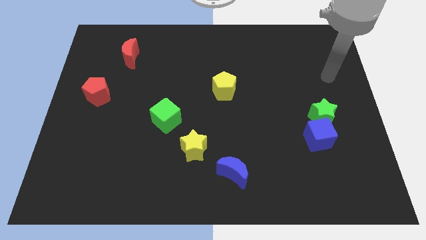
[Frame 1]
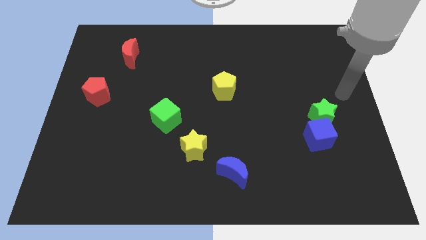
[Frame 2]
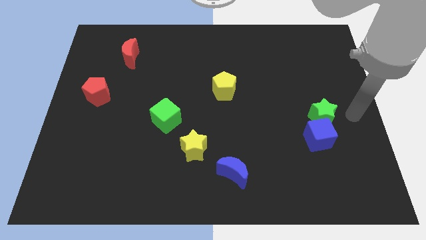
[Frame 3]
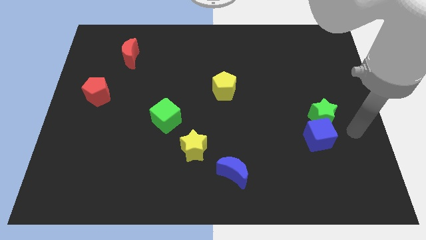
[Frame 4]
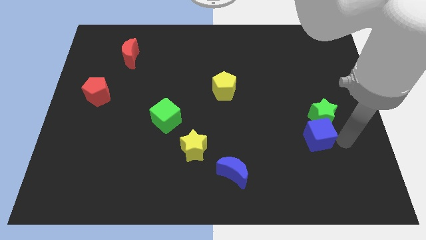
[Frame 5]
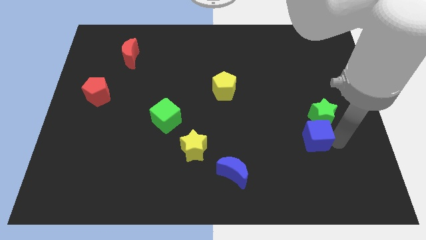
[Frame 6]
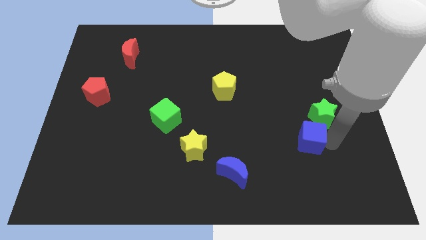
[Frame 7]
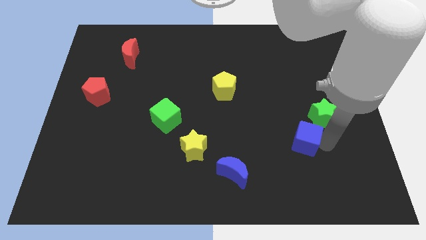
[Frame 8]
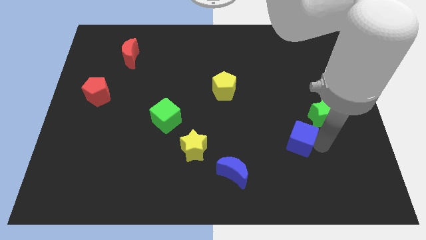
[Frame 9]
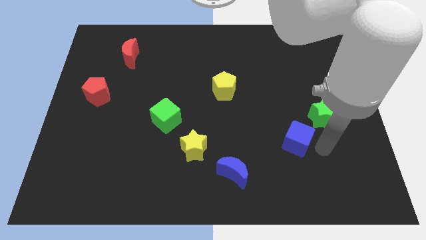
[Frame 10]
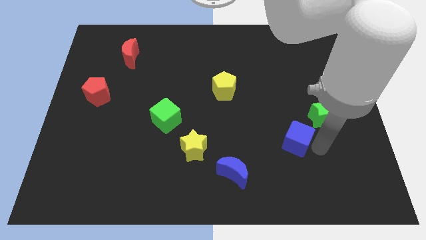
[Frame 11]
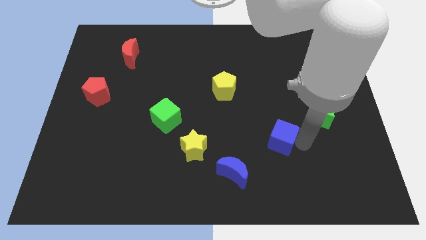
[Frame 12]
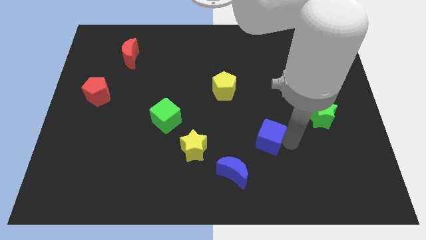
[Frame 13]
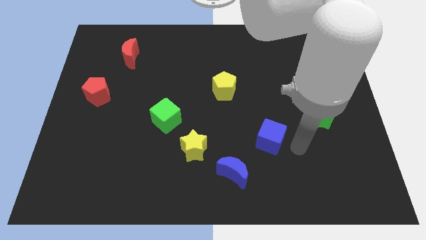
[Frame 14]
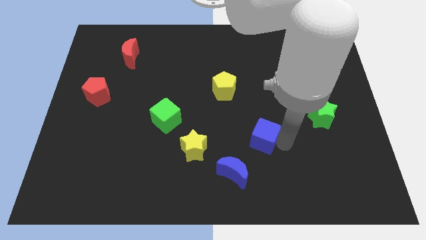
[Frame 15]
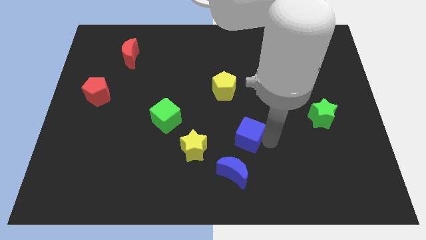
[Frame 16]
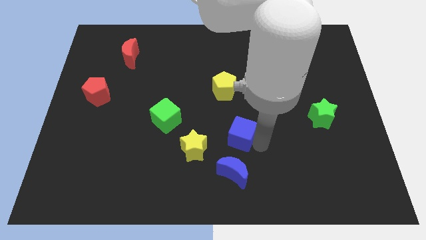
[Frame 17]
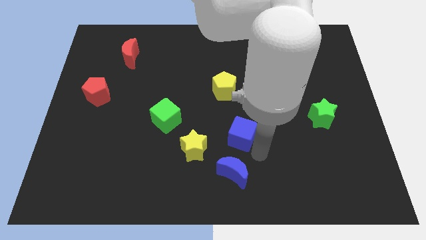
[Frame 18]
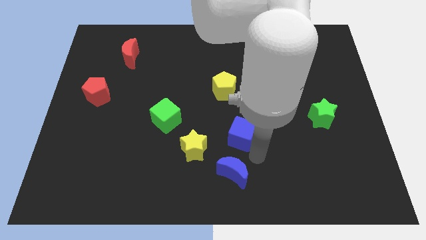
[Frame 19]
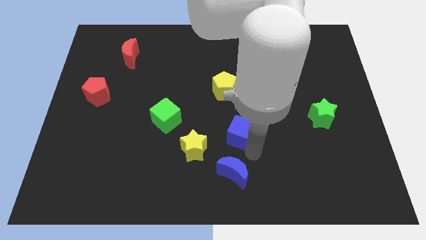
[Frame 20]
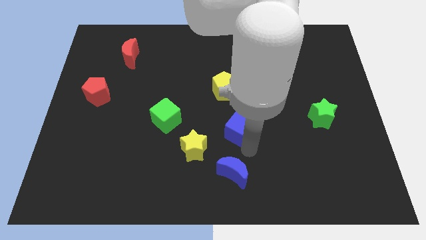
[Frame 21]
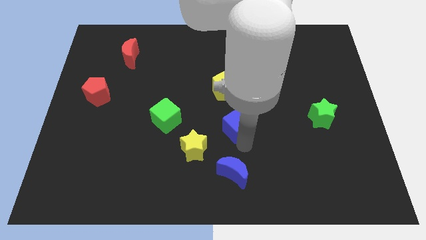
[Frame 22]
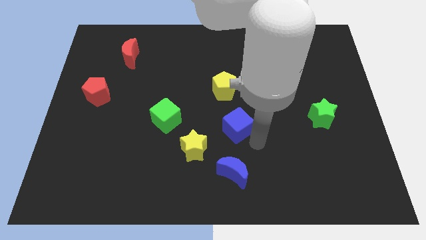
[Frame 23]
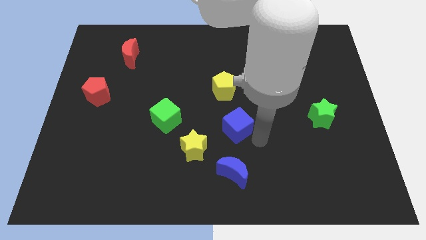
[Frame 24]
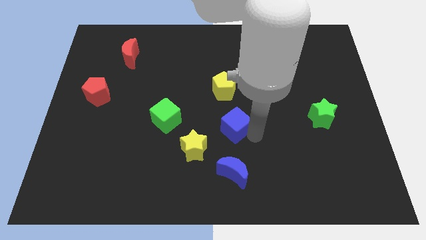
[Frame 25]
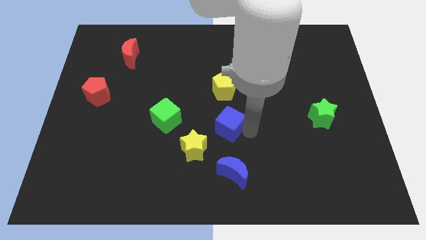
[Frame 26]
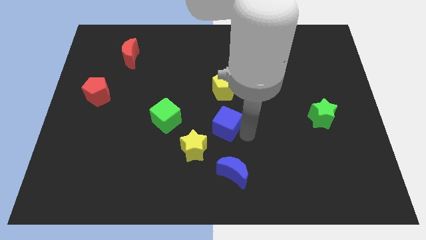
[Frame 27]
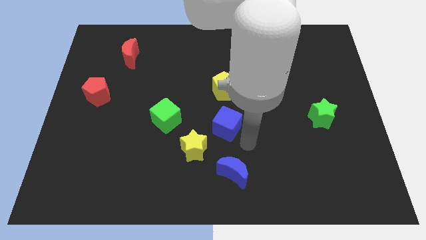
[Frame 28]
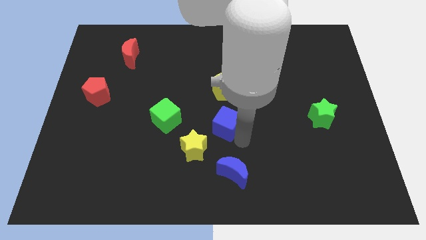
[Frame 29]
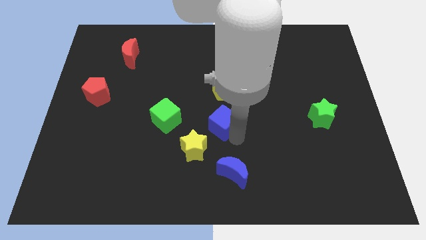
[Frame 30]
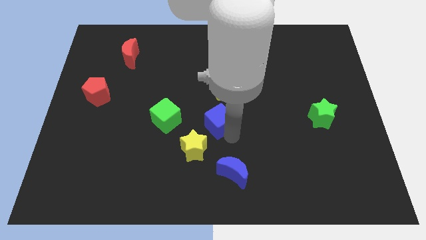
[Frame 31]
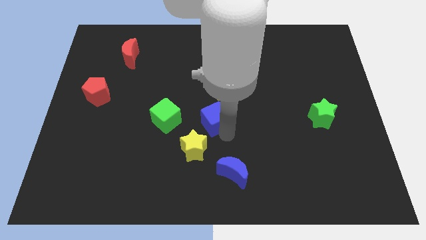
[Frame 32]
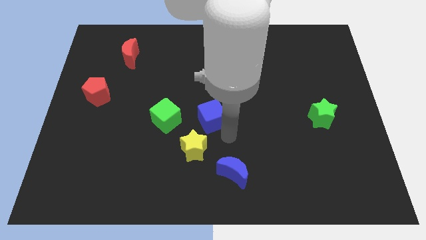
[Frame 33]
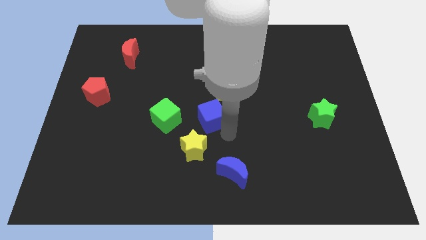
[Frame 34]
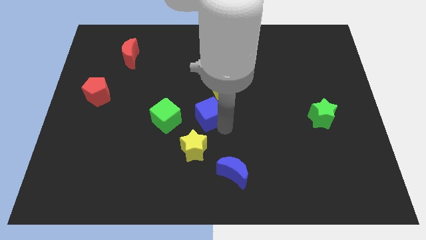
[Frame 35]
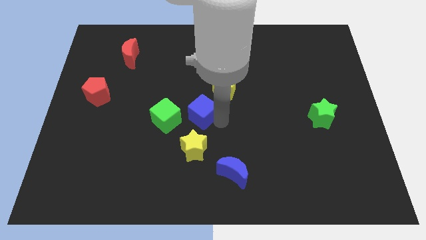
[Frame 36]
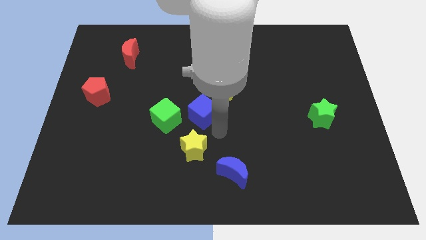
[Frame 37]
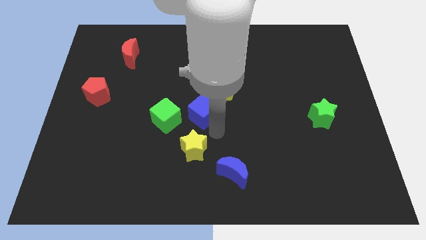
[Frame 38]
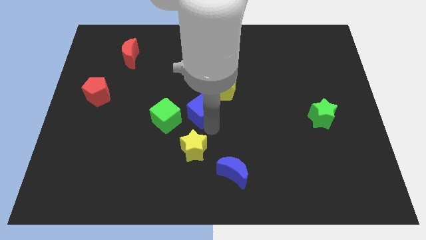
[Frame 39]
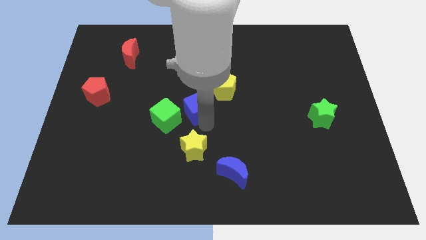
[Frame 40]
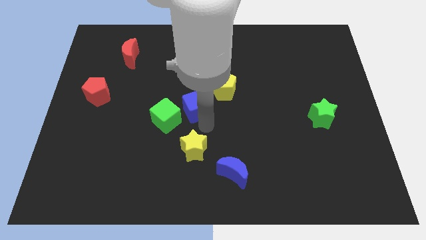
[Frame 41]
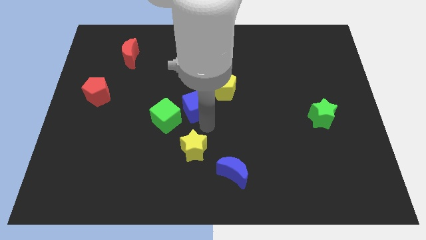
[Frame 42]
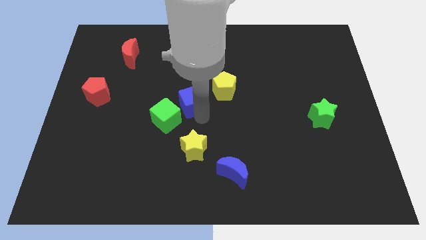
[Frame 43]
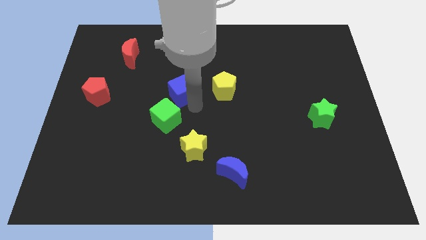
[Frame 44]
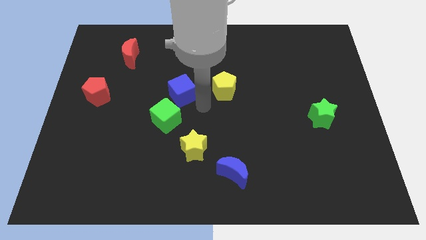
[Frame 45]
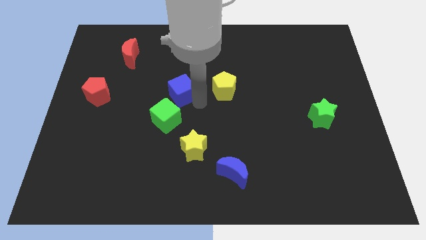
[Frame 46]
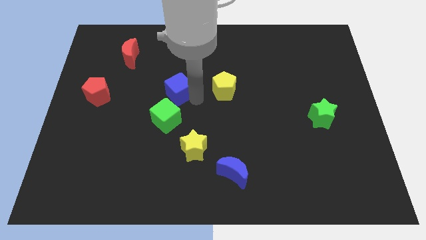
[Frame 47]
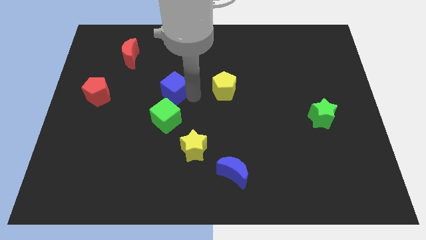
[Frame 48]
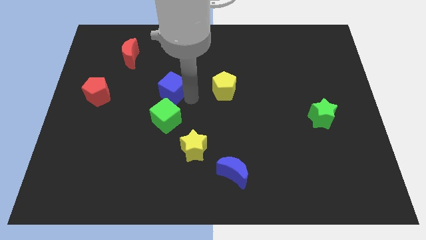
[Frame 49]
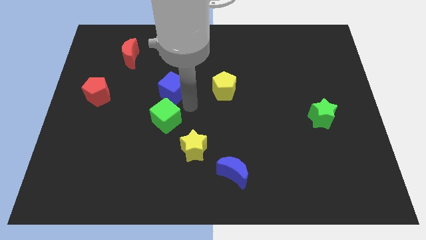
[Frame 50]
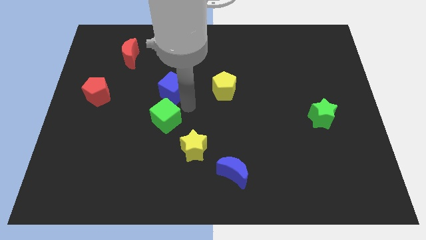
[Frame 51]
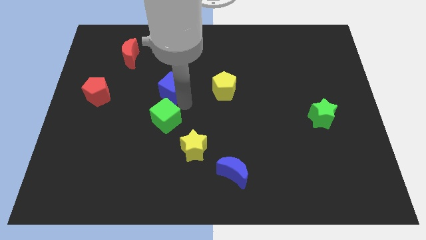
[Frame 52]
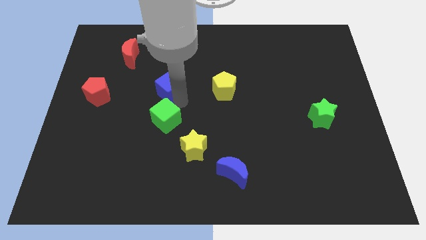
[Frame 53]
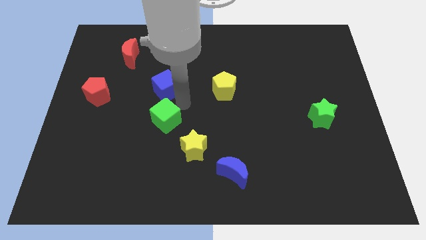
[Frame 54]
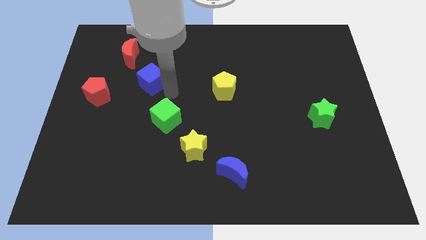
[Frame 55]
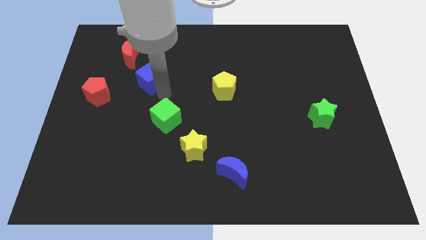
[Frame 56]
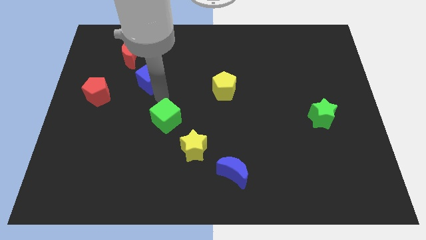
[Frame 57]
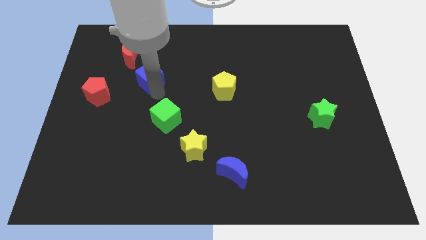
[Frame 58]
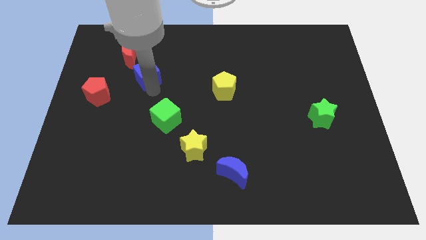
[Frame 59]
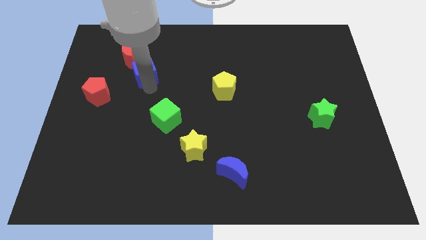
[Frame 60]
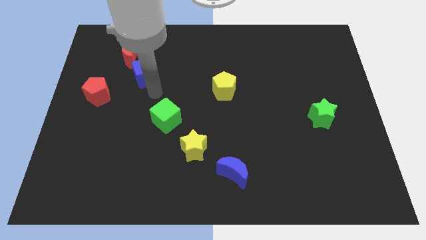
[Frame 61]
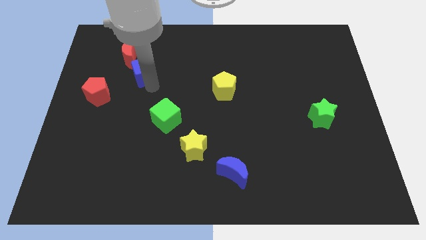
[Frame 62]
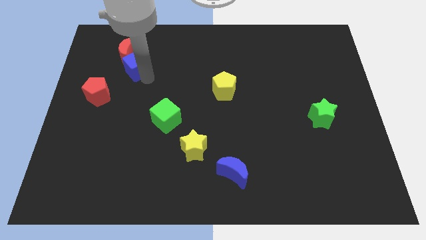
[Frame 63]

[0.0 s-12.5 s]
put the blue cube to the red moon

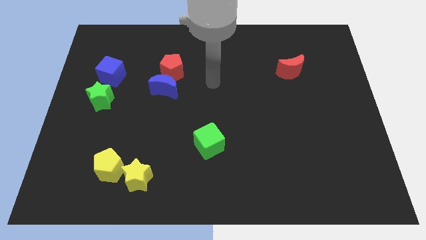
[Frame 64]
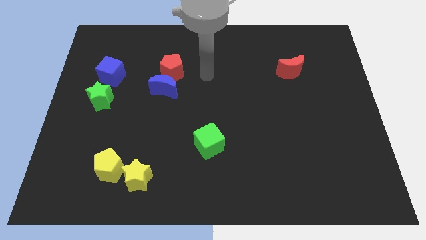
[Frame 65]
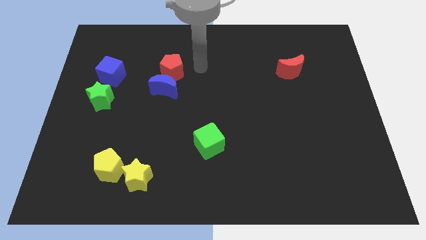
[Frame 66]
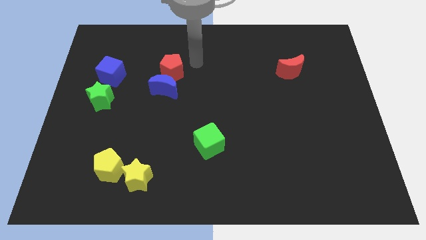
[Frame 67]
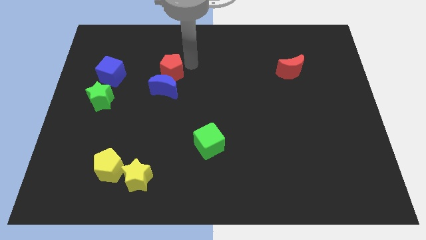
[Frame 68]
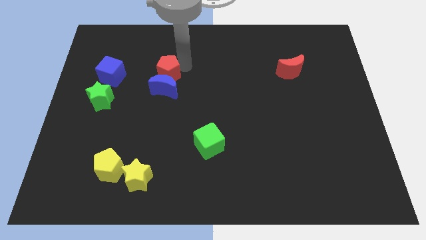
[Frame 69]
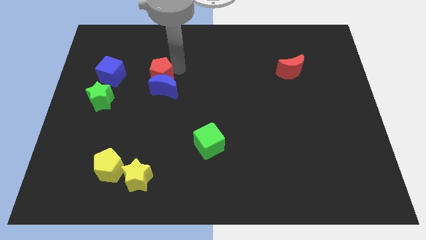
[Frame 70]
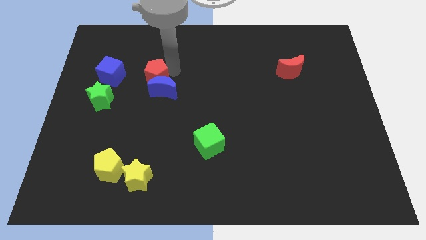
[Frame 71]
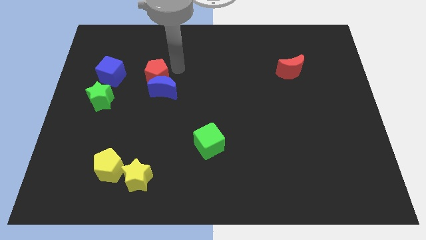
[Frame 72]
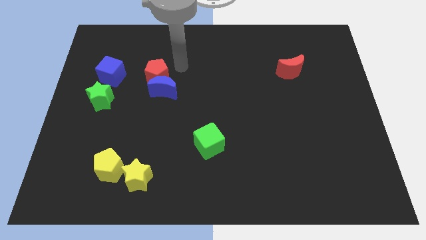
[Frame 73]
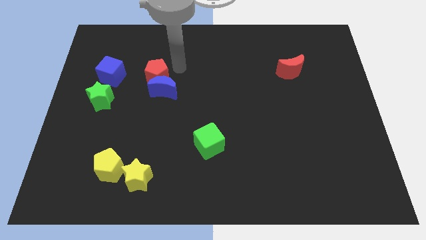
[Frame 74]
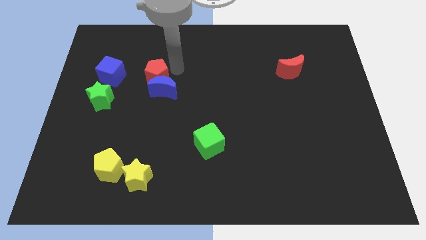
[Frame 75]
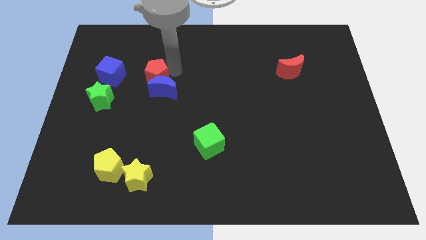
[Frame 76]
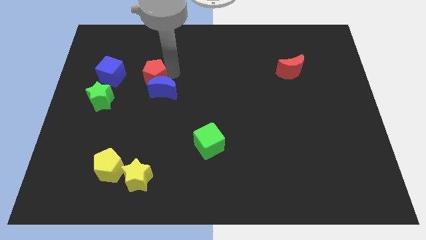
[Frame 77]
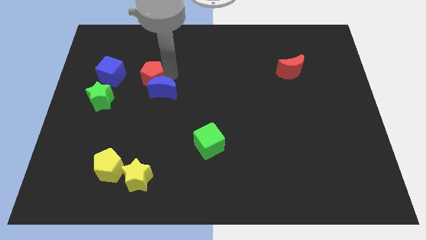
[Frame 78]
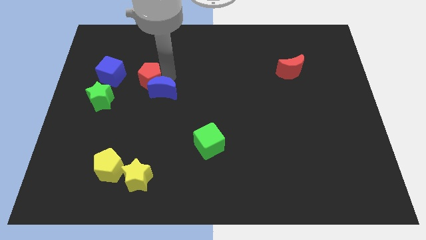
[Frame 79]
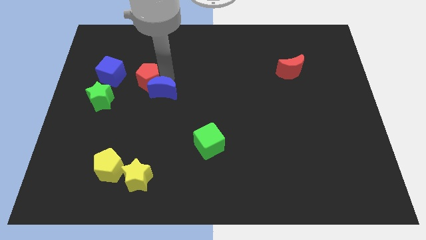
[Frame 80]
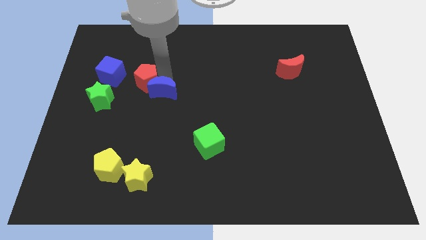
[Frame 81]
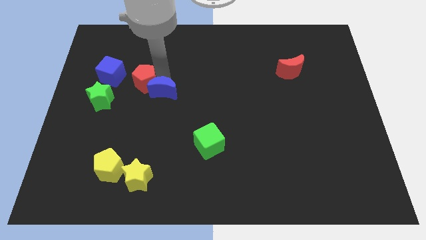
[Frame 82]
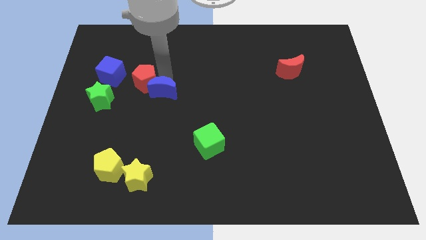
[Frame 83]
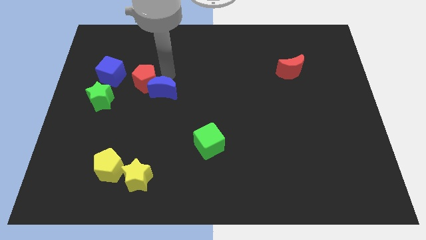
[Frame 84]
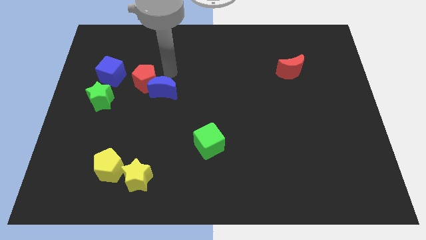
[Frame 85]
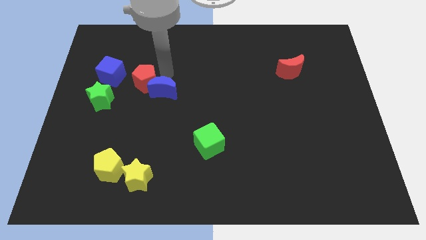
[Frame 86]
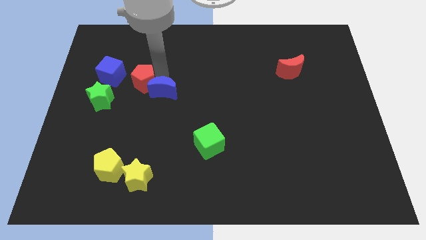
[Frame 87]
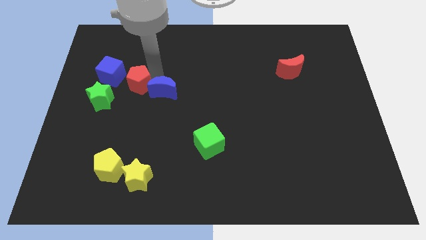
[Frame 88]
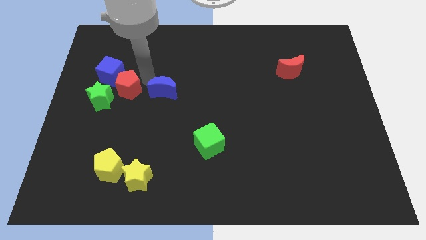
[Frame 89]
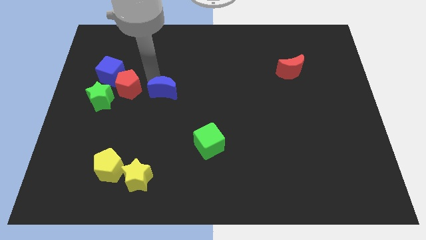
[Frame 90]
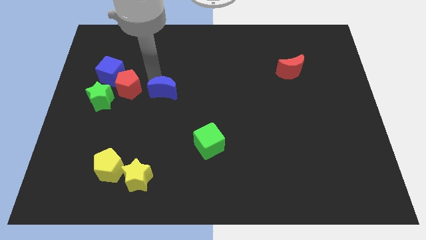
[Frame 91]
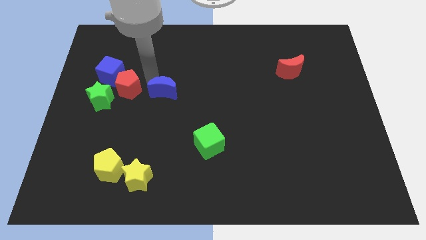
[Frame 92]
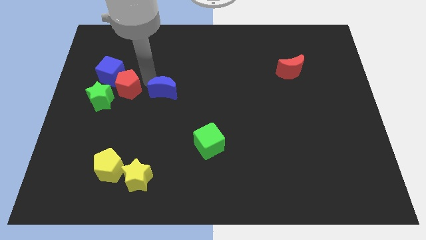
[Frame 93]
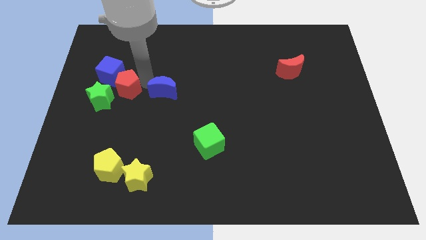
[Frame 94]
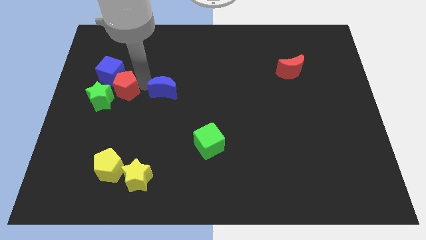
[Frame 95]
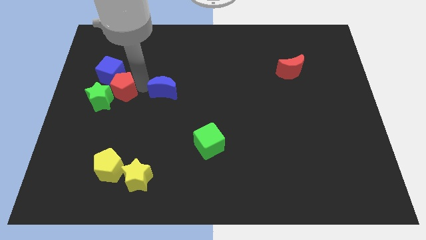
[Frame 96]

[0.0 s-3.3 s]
push the red pentagon next to the green star
